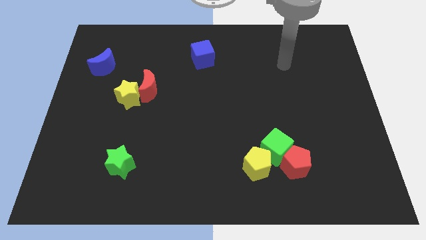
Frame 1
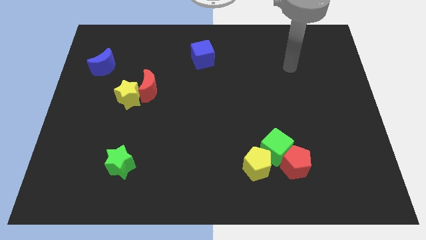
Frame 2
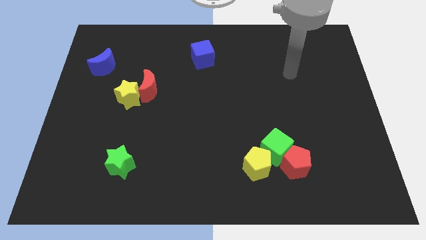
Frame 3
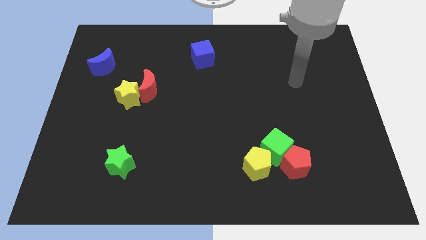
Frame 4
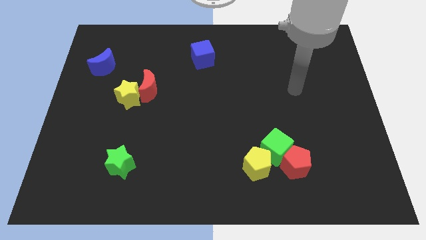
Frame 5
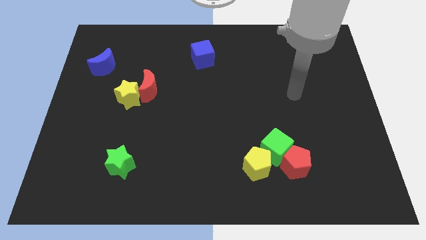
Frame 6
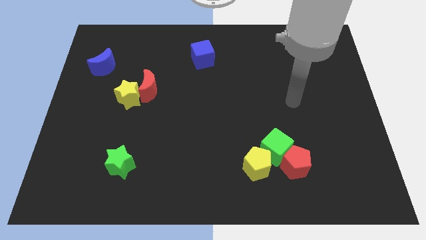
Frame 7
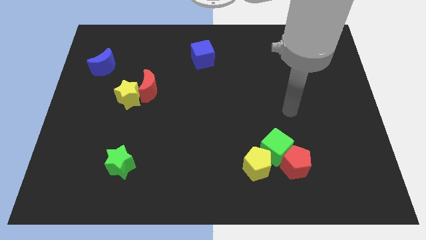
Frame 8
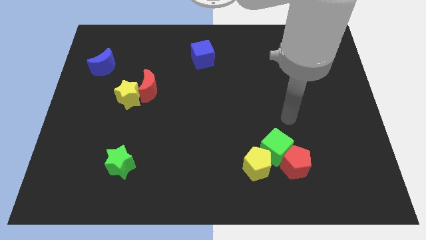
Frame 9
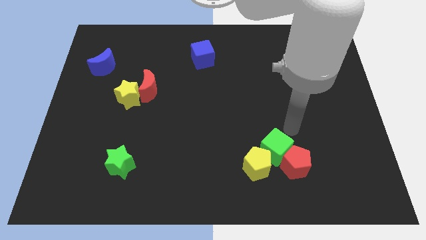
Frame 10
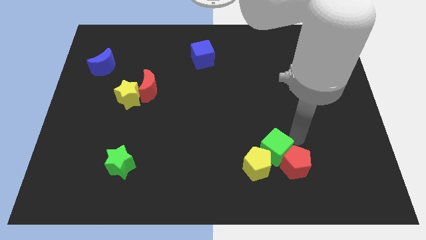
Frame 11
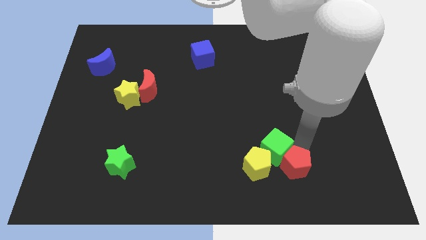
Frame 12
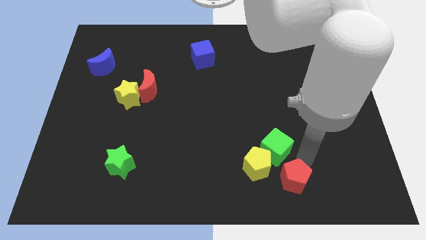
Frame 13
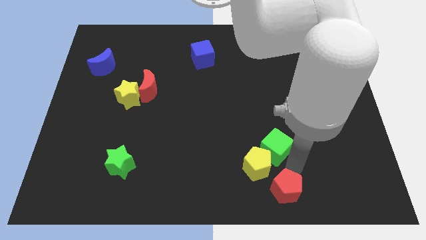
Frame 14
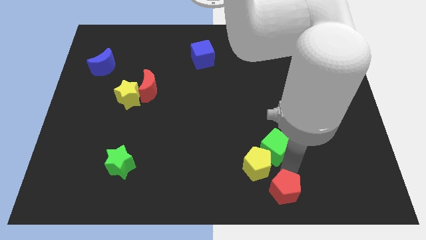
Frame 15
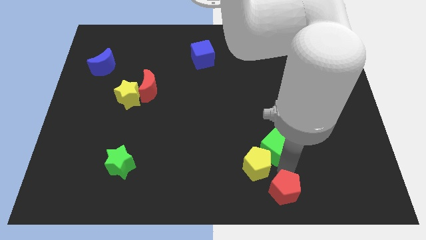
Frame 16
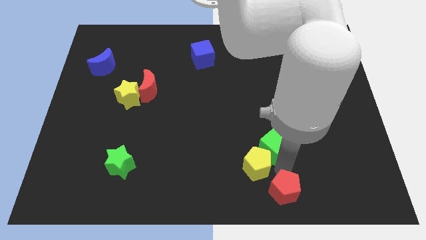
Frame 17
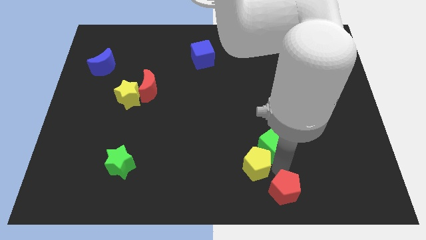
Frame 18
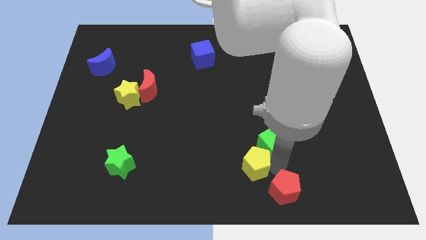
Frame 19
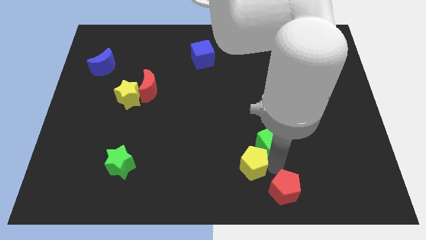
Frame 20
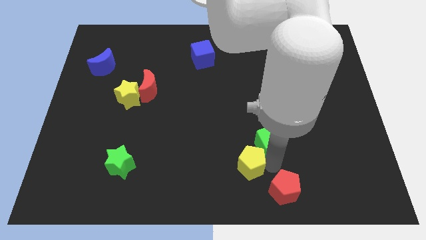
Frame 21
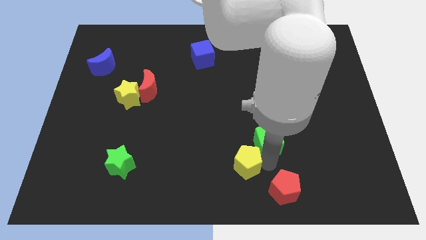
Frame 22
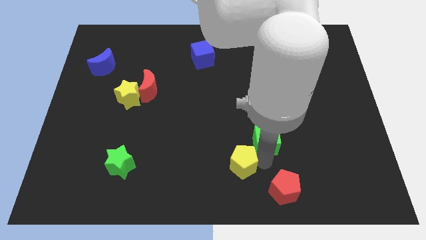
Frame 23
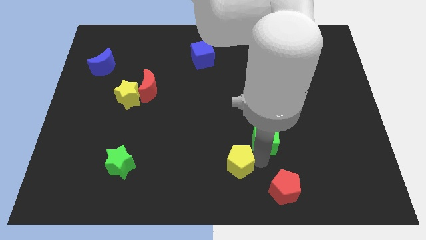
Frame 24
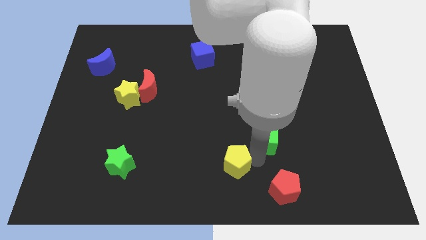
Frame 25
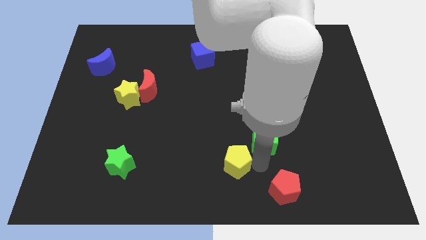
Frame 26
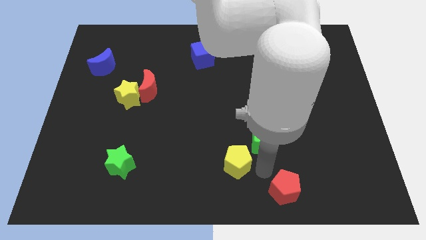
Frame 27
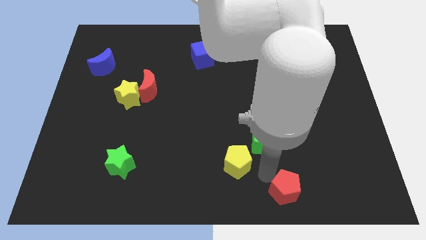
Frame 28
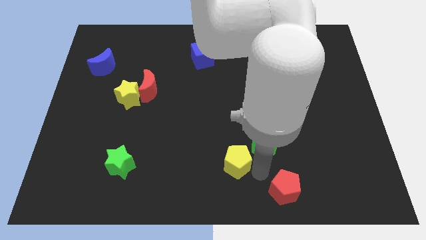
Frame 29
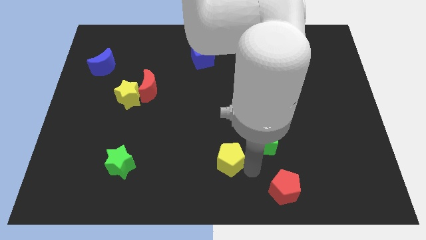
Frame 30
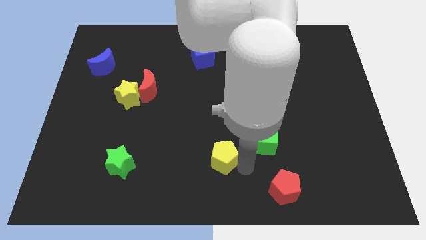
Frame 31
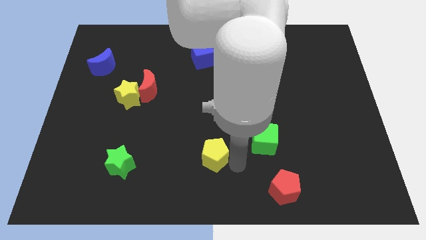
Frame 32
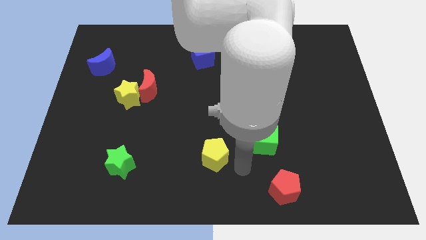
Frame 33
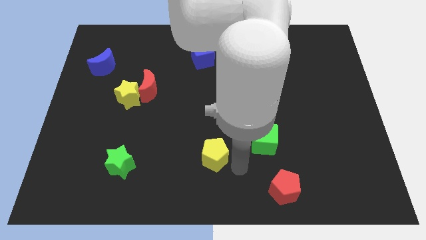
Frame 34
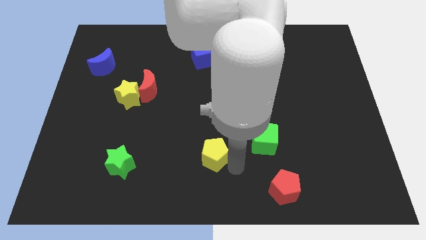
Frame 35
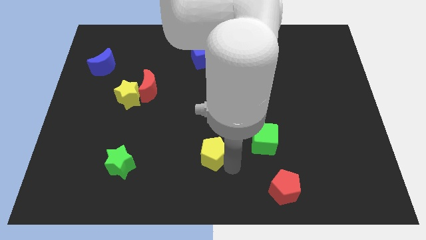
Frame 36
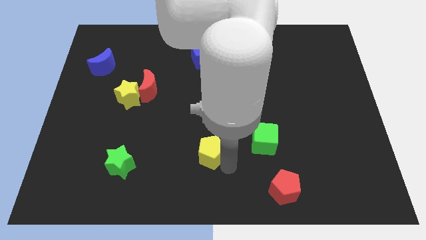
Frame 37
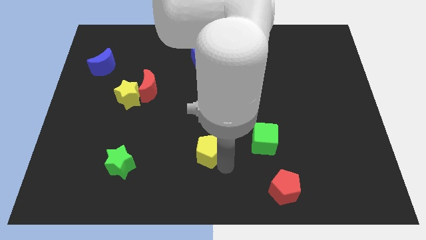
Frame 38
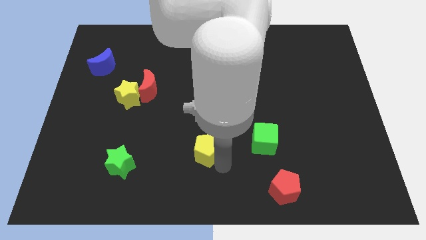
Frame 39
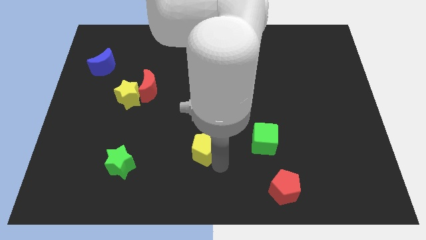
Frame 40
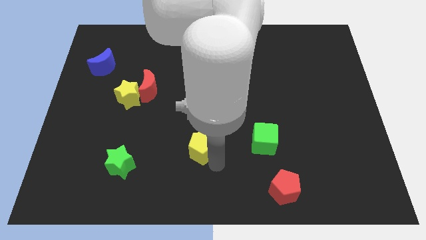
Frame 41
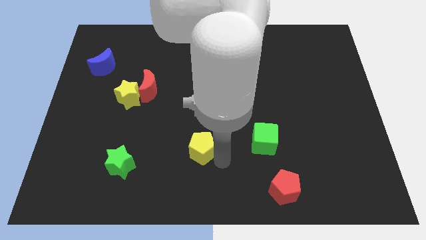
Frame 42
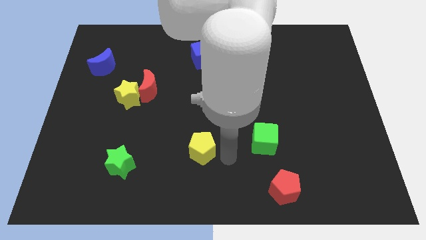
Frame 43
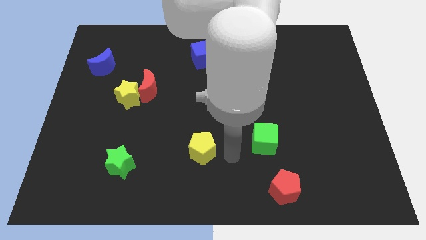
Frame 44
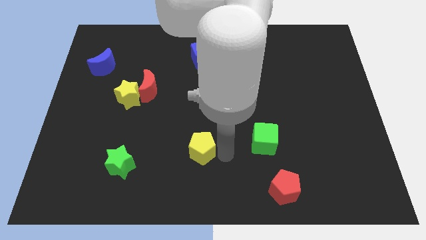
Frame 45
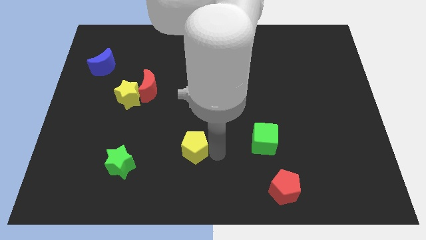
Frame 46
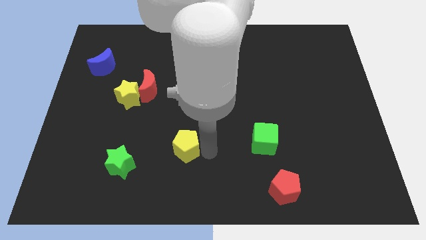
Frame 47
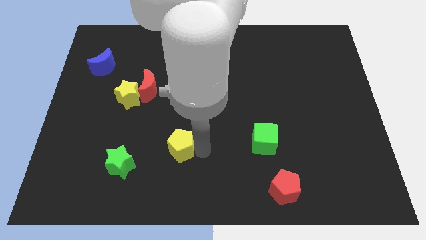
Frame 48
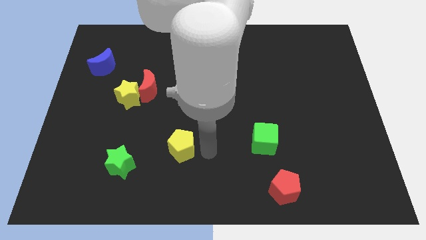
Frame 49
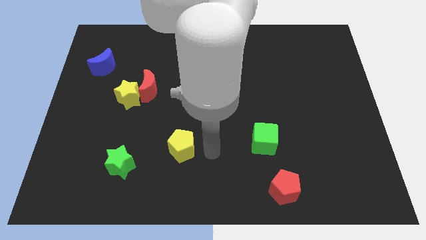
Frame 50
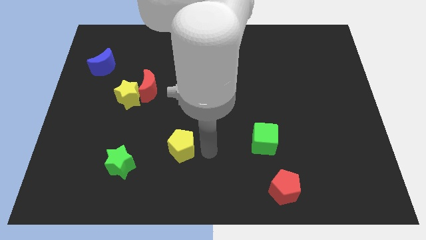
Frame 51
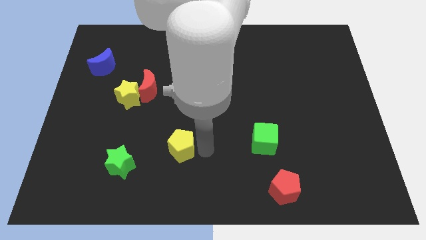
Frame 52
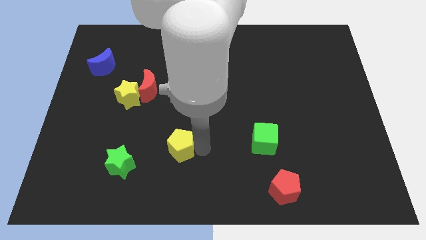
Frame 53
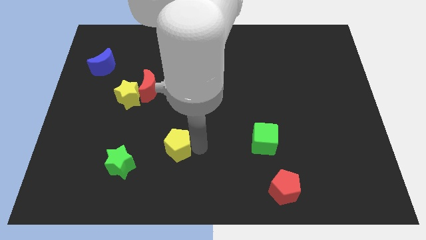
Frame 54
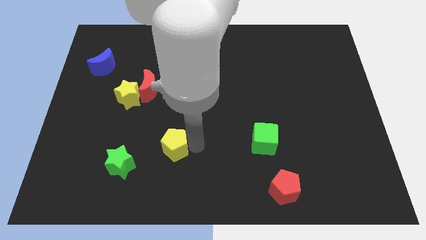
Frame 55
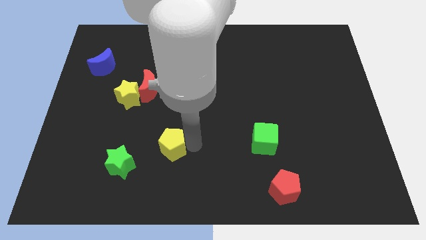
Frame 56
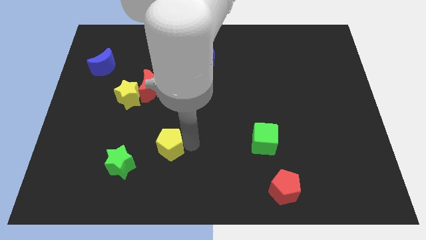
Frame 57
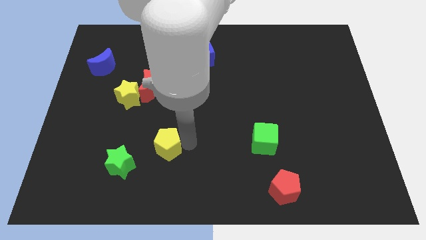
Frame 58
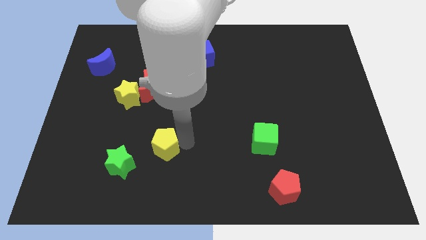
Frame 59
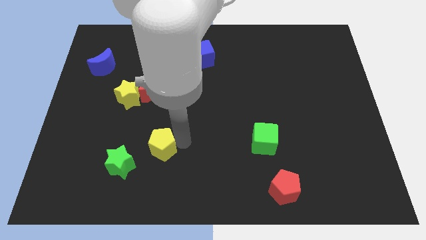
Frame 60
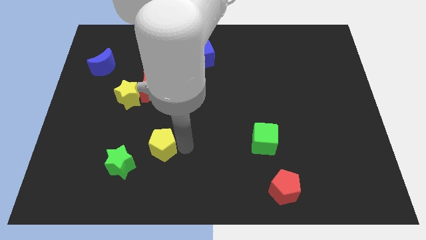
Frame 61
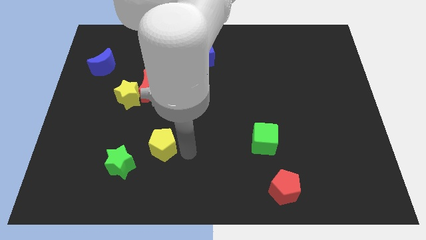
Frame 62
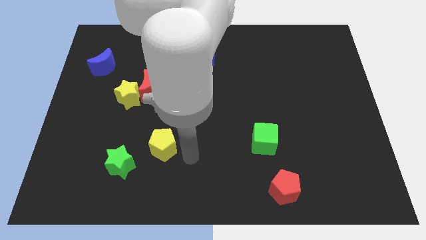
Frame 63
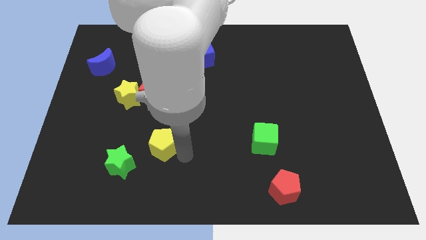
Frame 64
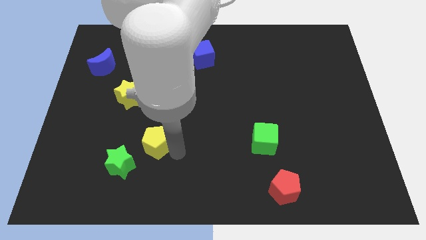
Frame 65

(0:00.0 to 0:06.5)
push the yellow pentagon left

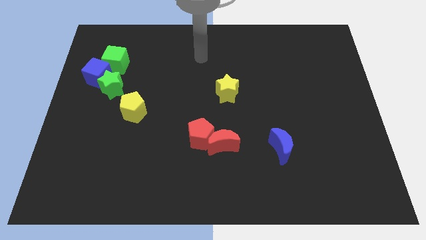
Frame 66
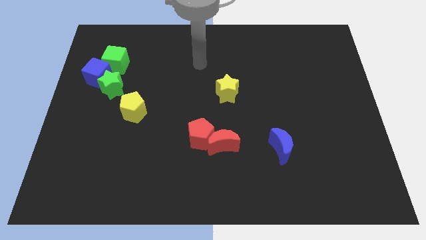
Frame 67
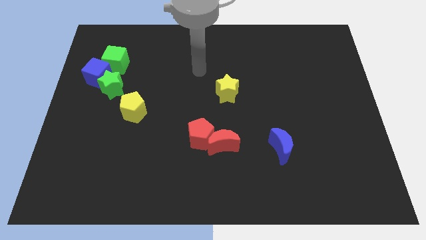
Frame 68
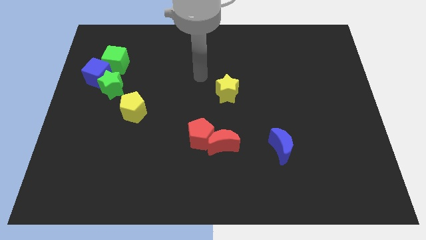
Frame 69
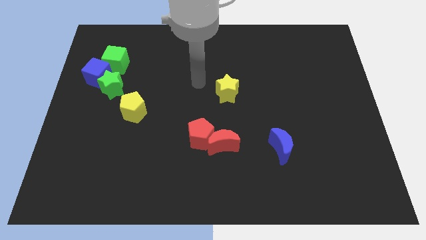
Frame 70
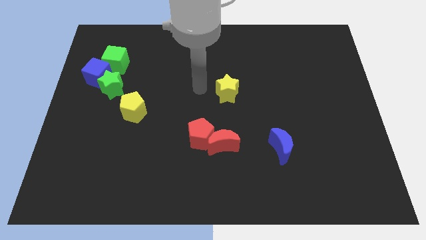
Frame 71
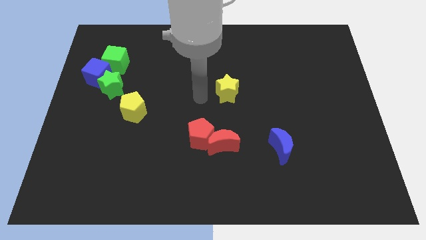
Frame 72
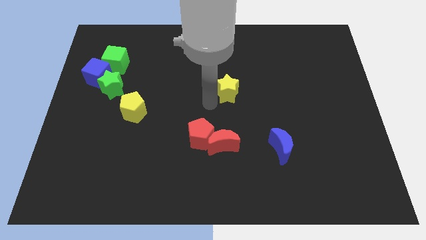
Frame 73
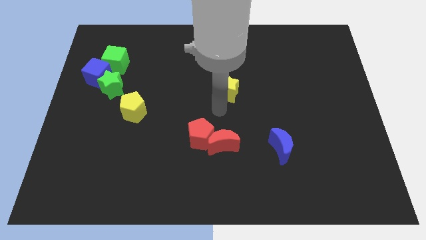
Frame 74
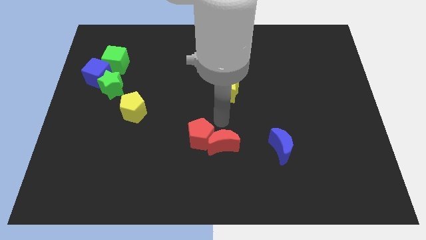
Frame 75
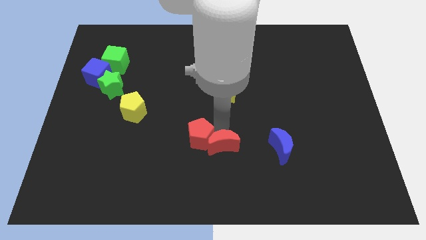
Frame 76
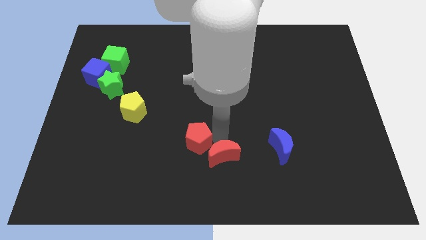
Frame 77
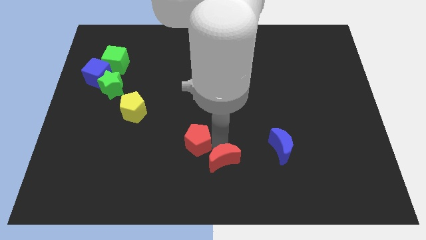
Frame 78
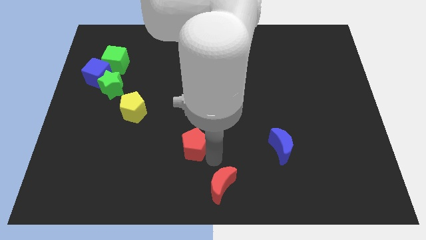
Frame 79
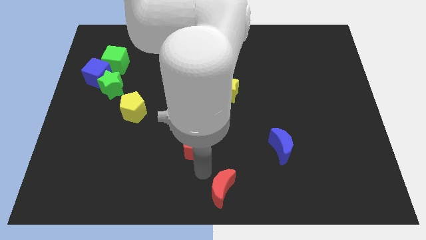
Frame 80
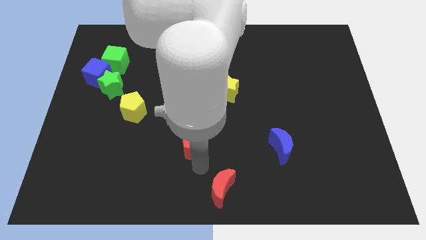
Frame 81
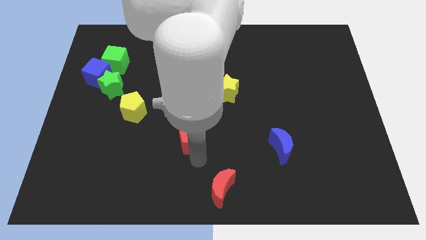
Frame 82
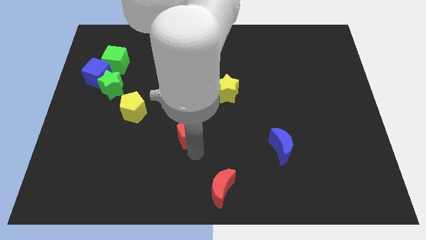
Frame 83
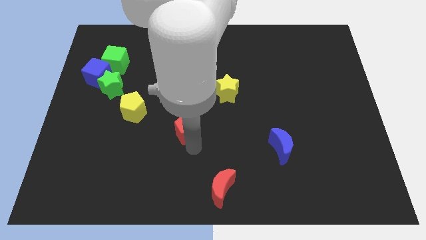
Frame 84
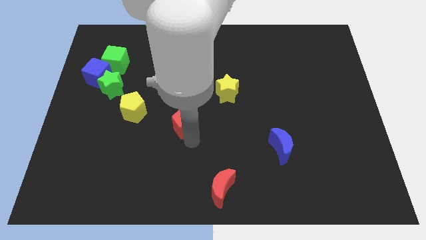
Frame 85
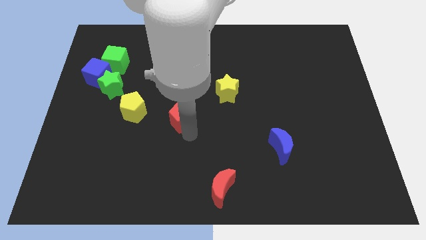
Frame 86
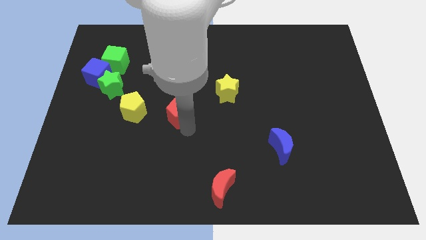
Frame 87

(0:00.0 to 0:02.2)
push the red pentagon a little bit up and to the left
